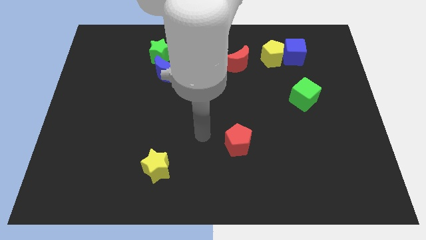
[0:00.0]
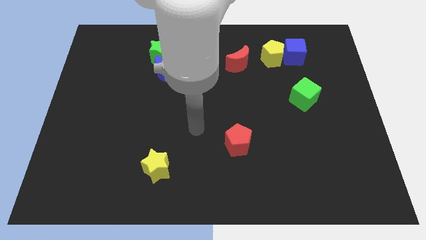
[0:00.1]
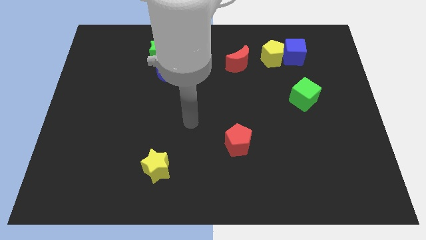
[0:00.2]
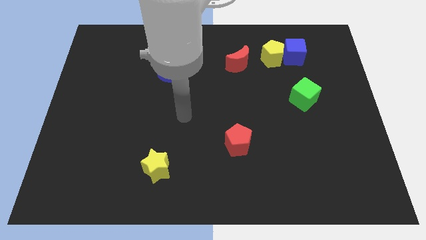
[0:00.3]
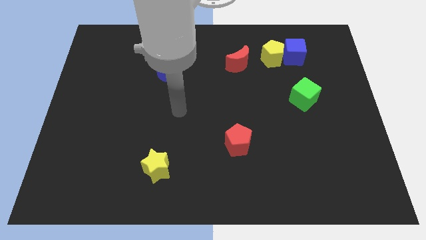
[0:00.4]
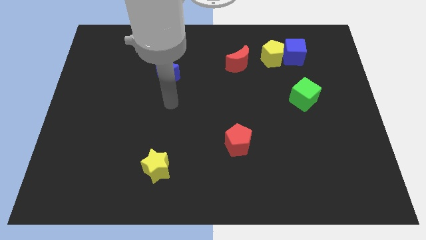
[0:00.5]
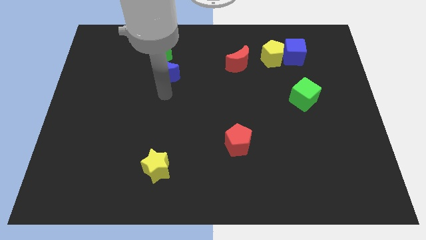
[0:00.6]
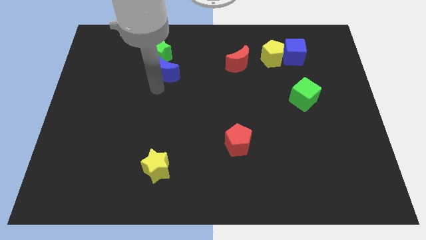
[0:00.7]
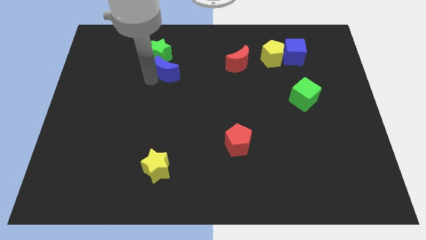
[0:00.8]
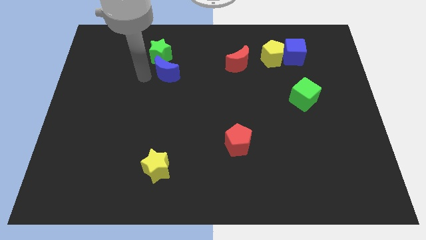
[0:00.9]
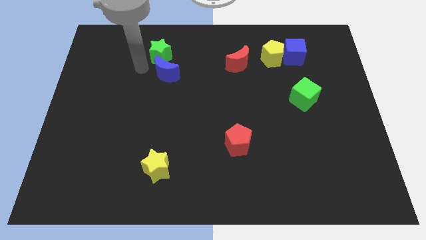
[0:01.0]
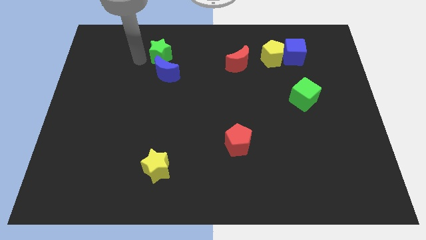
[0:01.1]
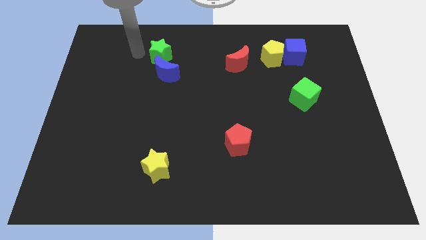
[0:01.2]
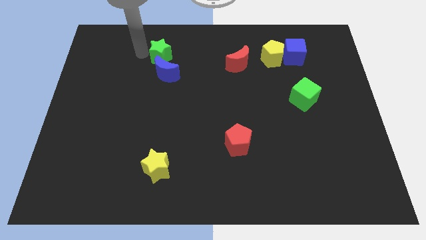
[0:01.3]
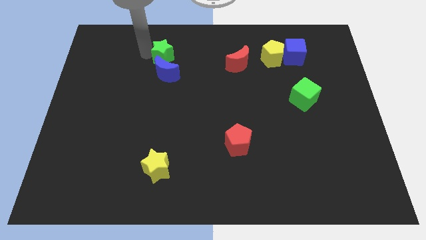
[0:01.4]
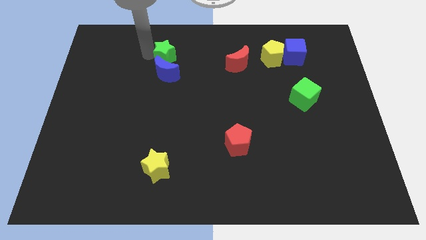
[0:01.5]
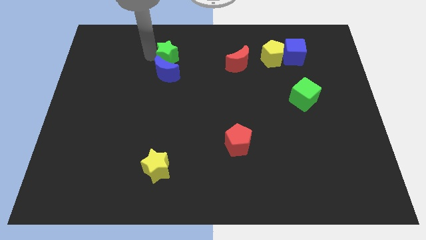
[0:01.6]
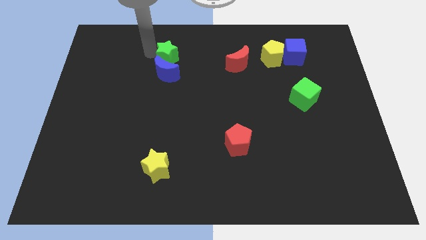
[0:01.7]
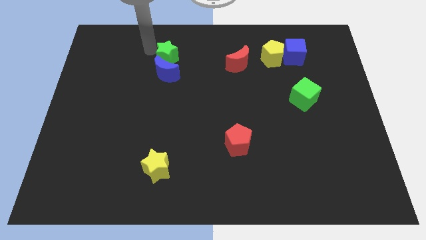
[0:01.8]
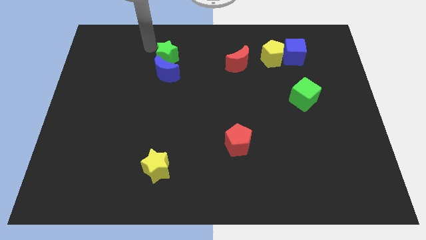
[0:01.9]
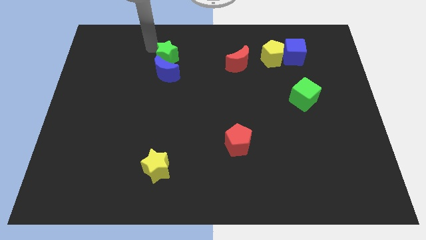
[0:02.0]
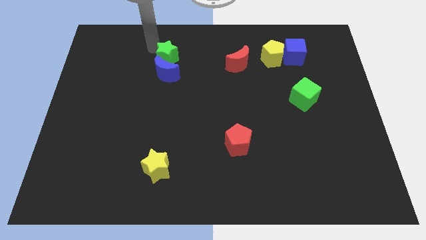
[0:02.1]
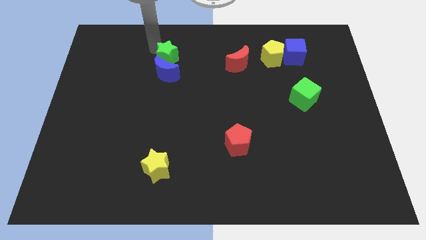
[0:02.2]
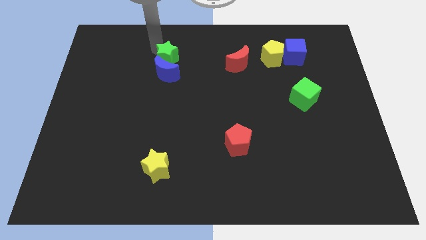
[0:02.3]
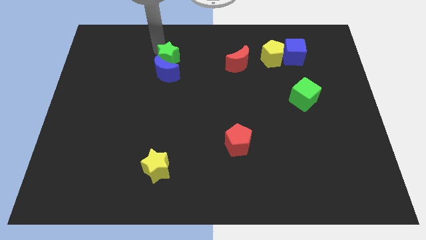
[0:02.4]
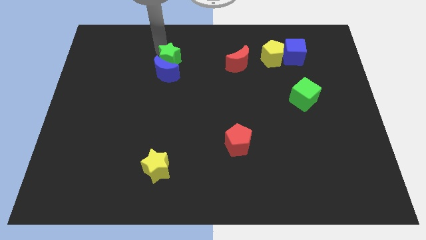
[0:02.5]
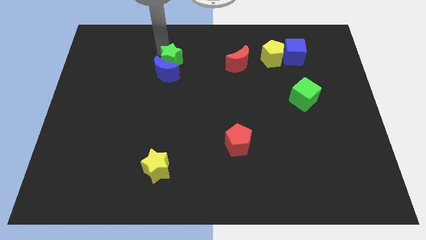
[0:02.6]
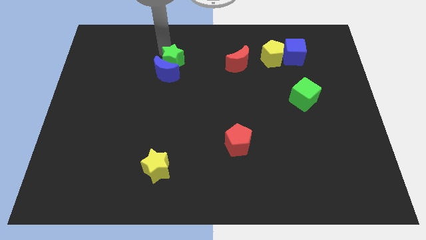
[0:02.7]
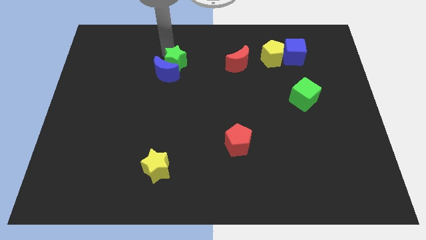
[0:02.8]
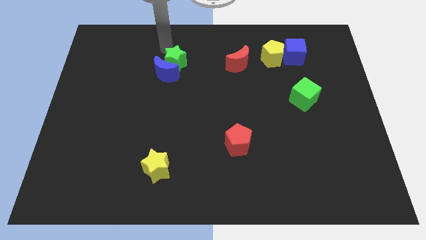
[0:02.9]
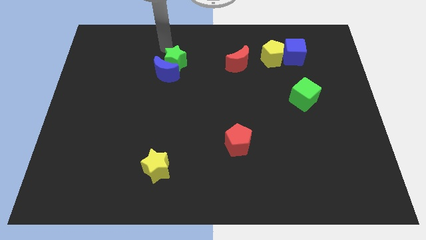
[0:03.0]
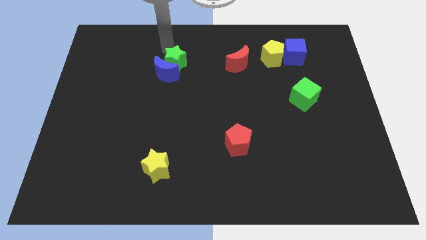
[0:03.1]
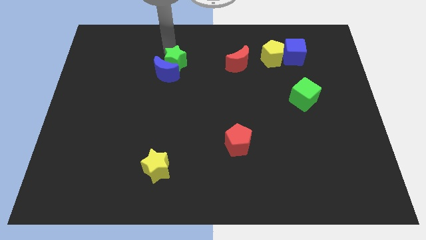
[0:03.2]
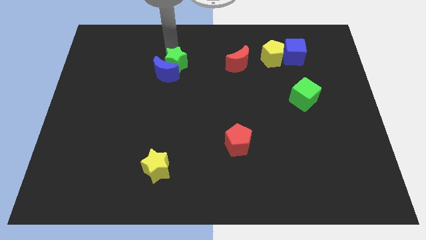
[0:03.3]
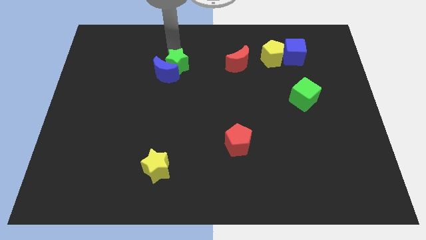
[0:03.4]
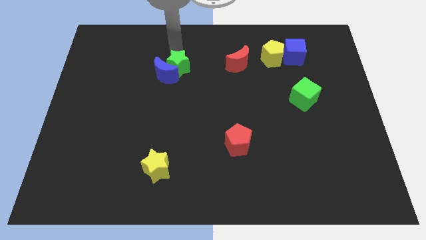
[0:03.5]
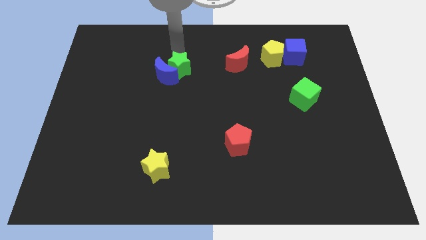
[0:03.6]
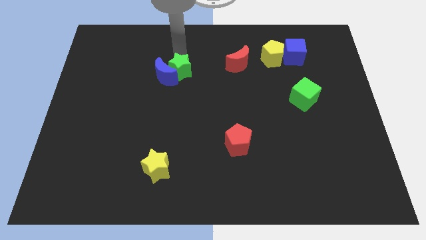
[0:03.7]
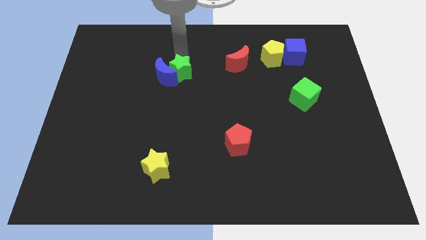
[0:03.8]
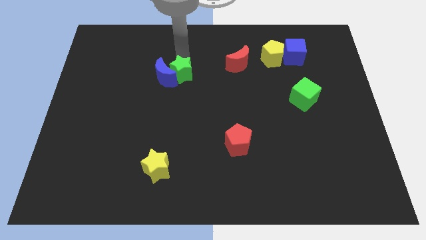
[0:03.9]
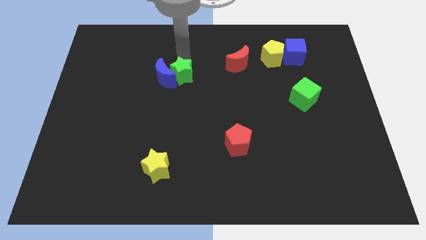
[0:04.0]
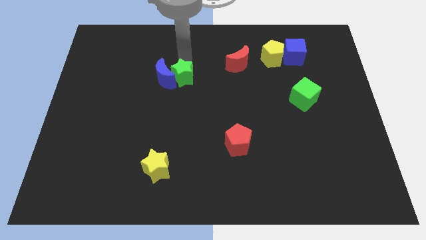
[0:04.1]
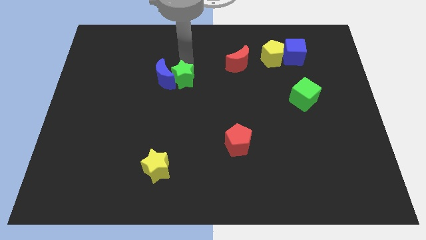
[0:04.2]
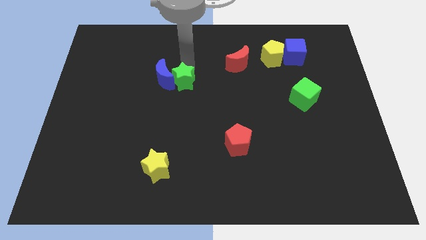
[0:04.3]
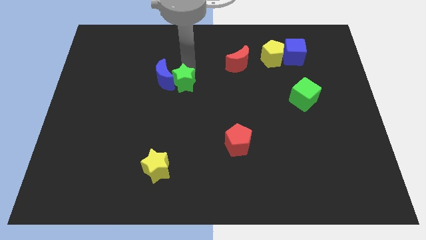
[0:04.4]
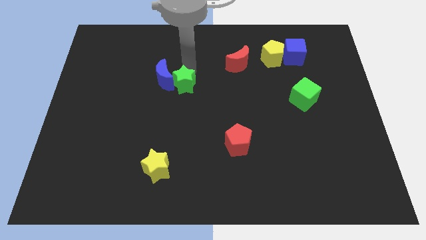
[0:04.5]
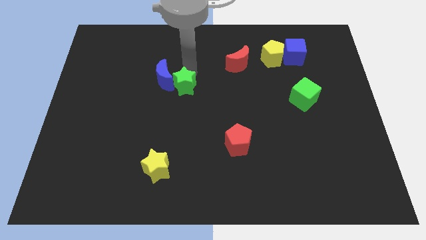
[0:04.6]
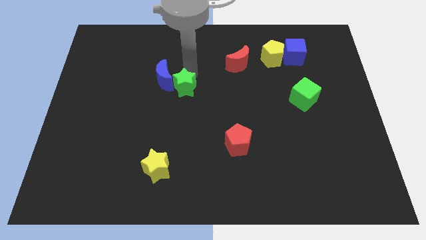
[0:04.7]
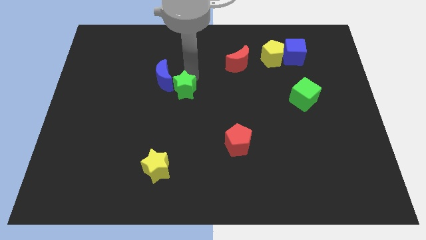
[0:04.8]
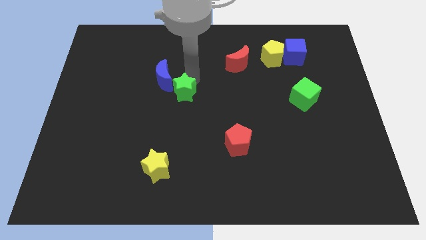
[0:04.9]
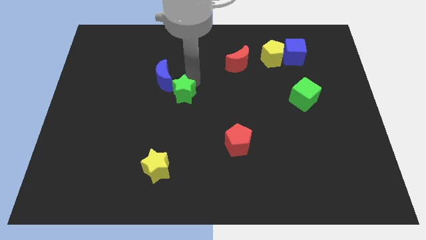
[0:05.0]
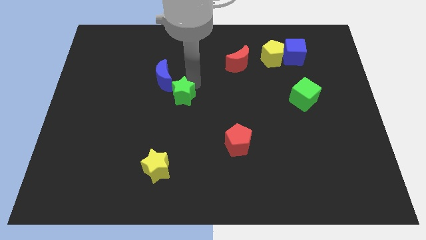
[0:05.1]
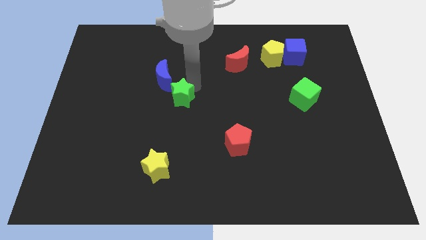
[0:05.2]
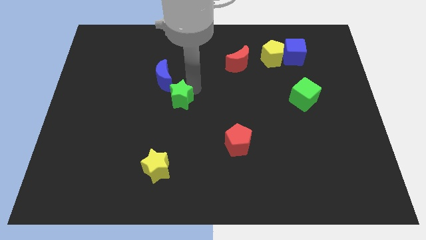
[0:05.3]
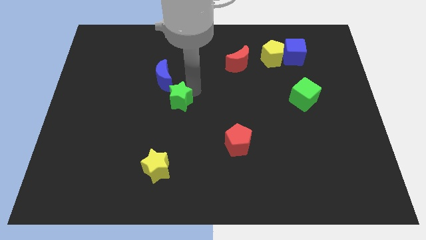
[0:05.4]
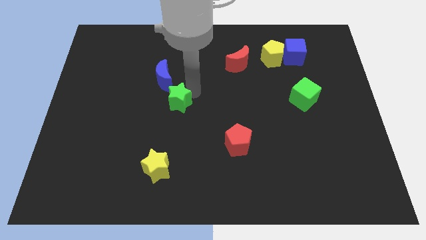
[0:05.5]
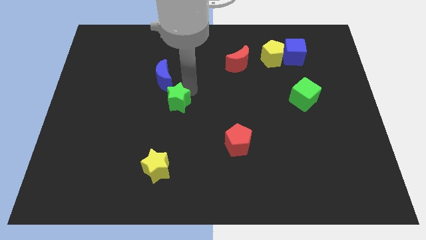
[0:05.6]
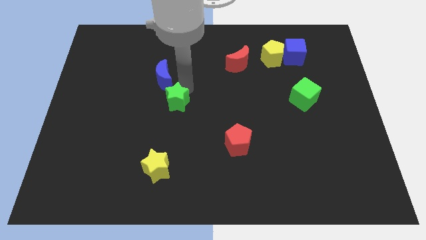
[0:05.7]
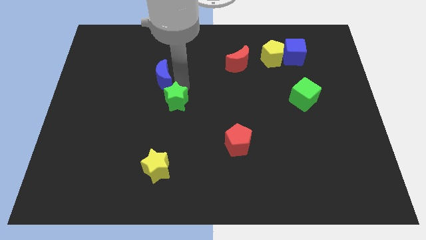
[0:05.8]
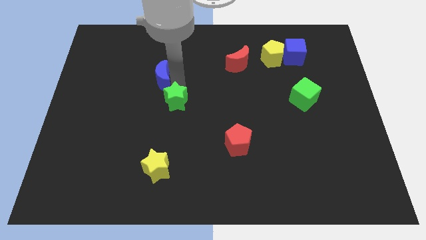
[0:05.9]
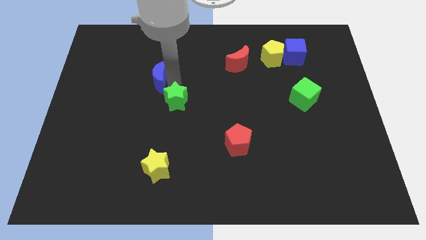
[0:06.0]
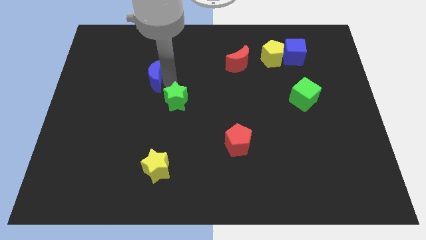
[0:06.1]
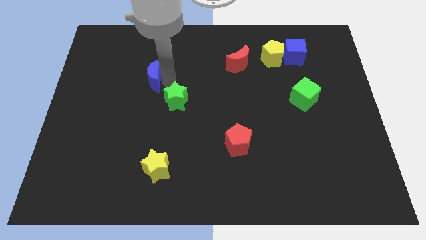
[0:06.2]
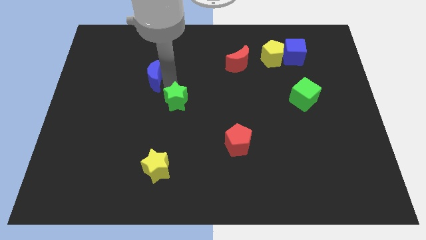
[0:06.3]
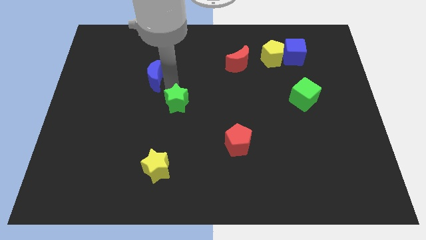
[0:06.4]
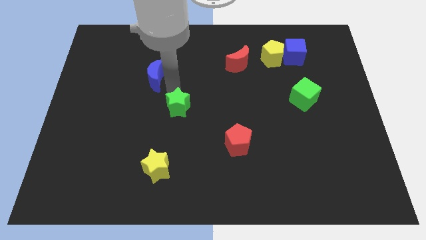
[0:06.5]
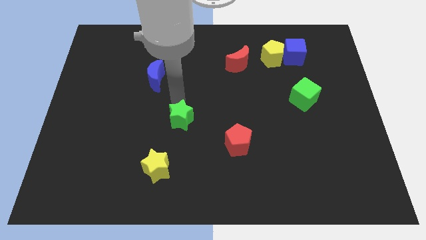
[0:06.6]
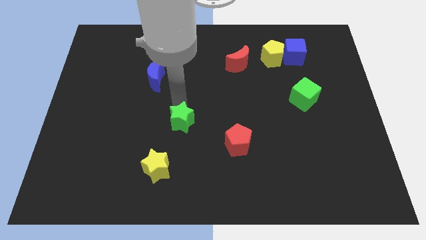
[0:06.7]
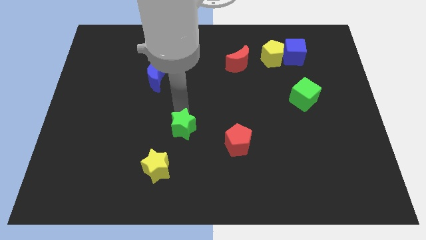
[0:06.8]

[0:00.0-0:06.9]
move the green star diagonally up and to the right of the yellow star
